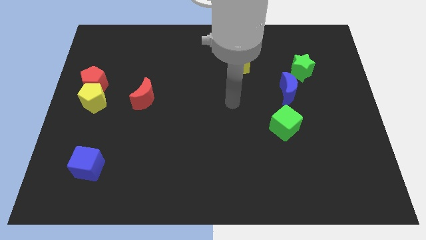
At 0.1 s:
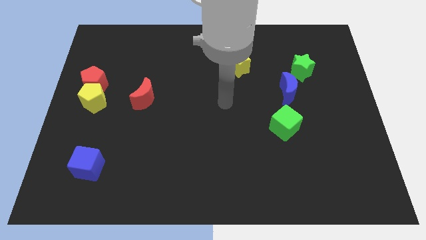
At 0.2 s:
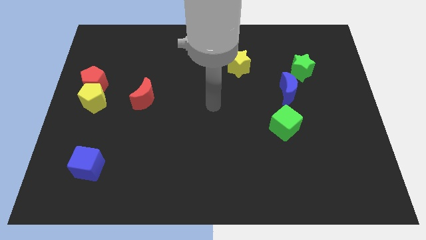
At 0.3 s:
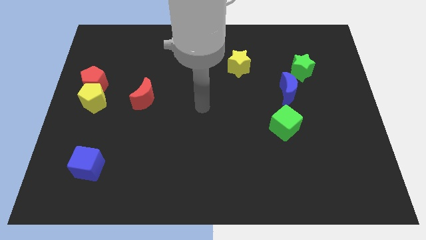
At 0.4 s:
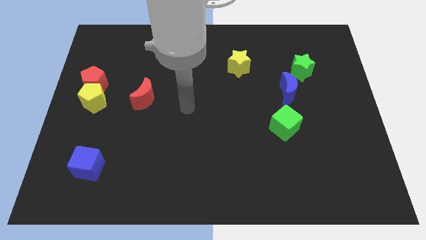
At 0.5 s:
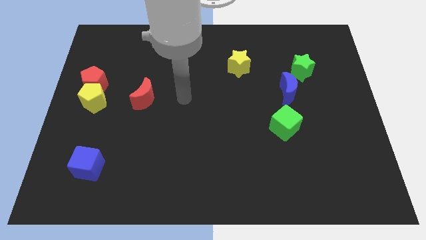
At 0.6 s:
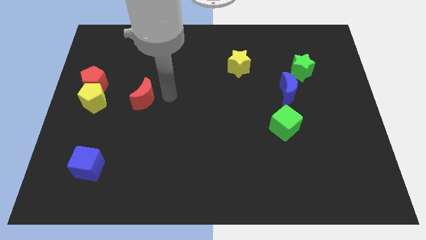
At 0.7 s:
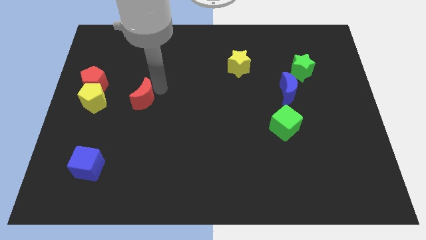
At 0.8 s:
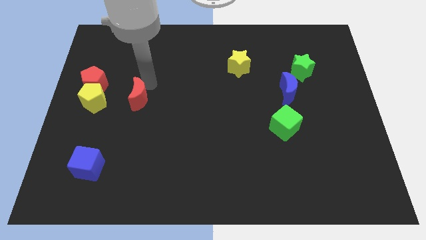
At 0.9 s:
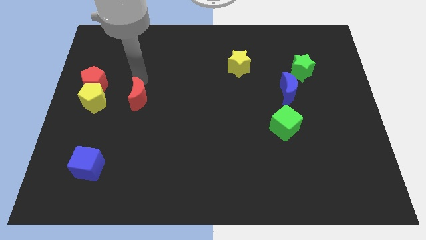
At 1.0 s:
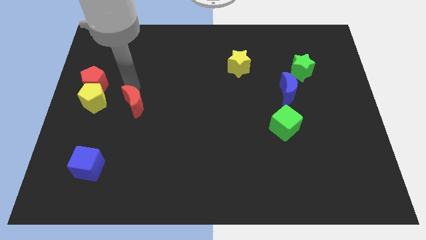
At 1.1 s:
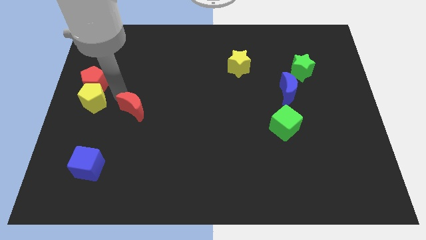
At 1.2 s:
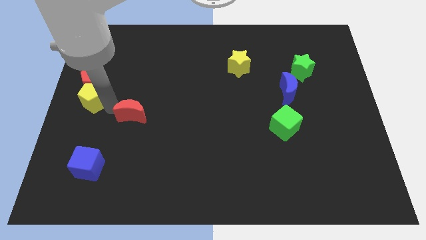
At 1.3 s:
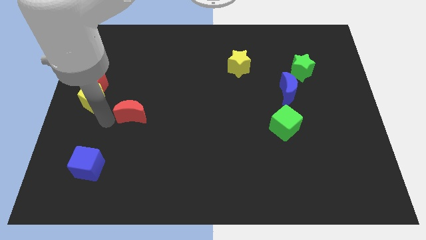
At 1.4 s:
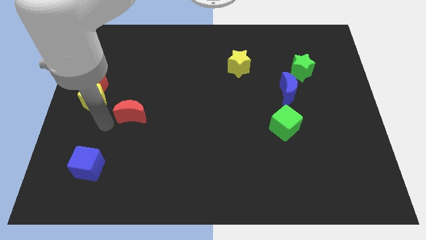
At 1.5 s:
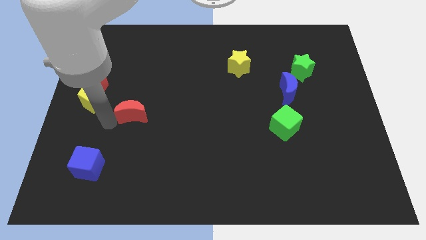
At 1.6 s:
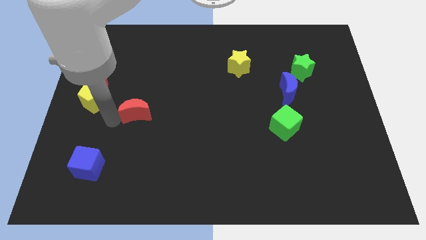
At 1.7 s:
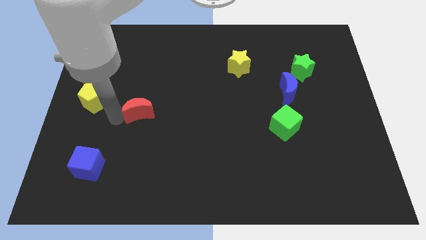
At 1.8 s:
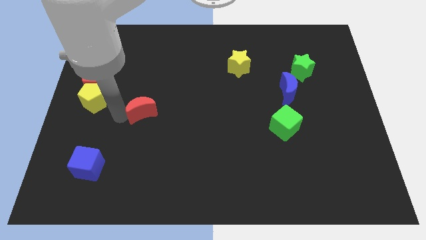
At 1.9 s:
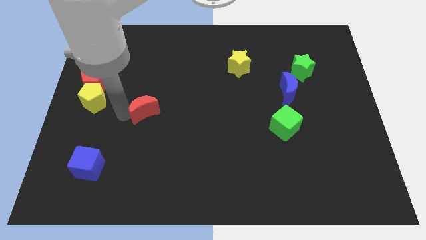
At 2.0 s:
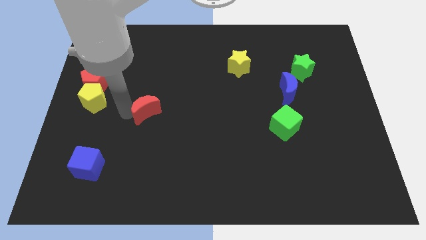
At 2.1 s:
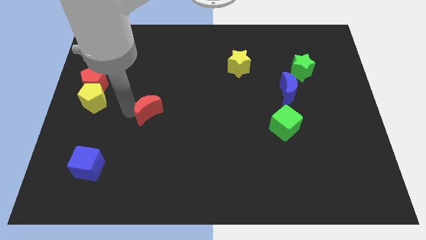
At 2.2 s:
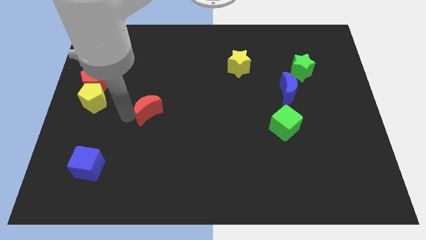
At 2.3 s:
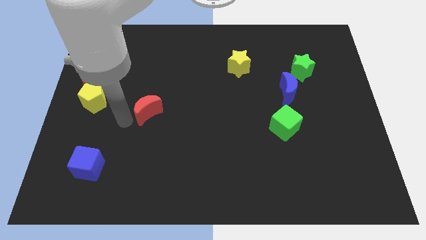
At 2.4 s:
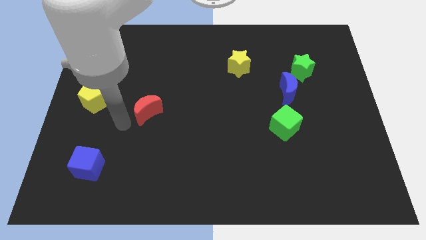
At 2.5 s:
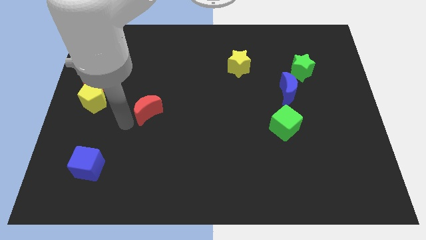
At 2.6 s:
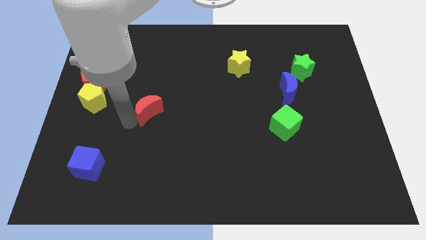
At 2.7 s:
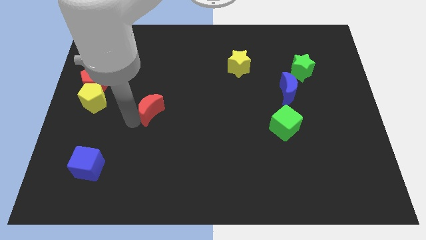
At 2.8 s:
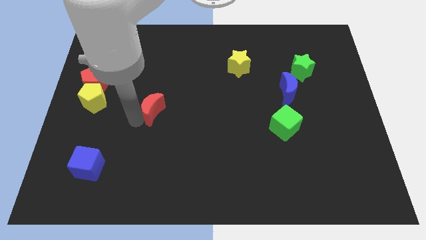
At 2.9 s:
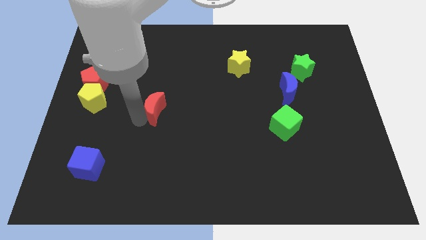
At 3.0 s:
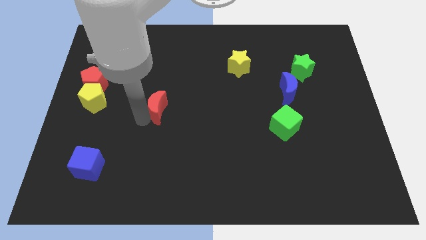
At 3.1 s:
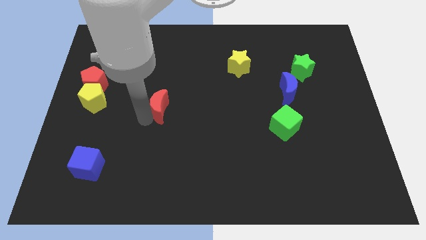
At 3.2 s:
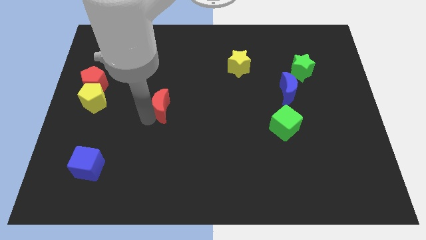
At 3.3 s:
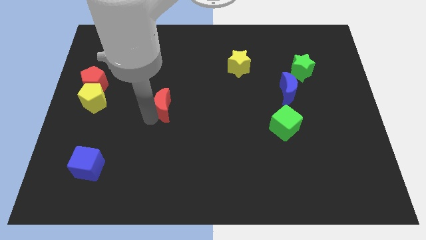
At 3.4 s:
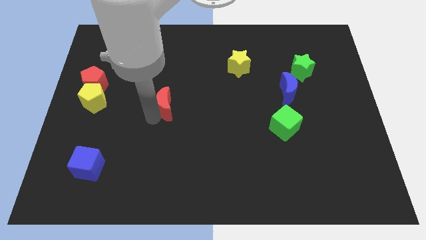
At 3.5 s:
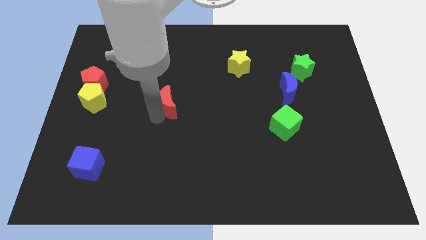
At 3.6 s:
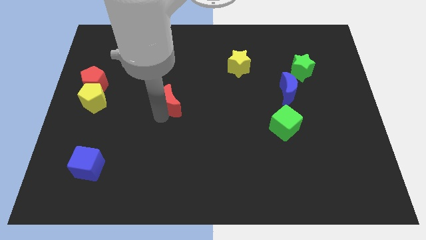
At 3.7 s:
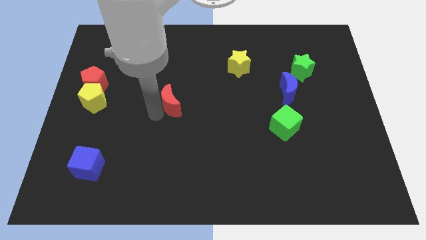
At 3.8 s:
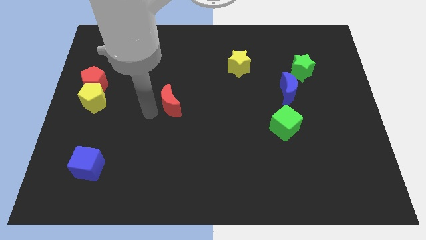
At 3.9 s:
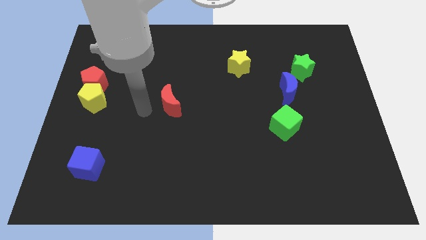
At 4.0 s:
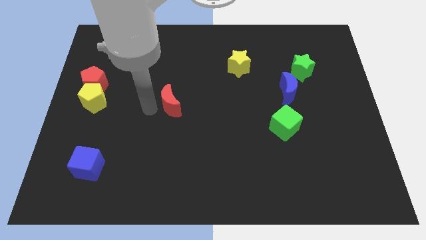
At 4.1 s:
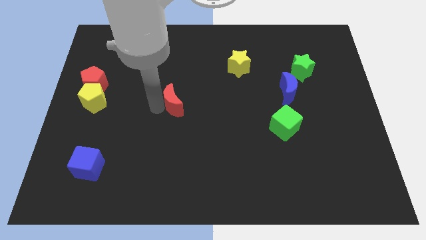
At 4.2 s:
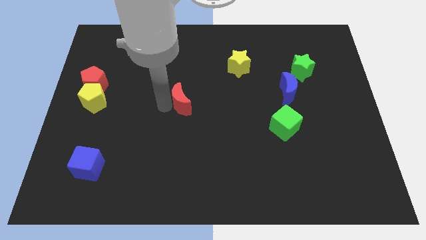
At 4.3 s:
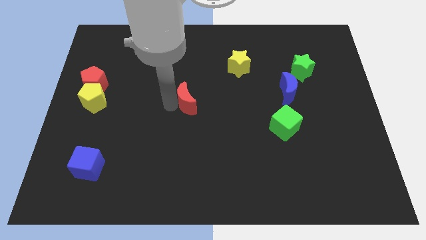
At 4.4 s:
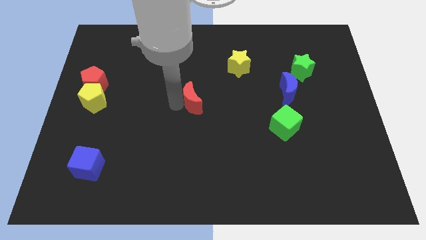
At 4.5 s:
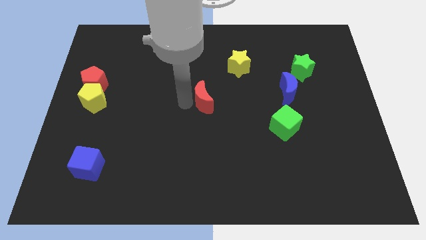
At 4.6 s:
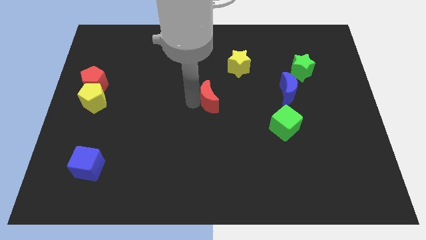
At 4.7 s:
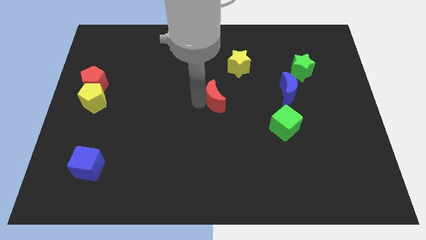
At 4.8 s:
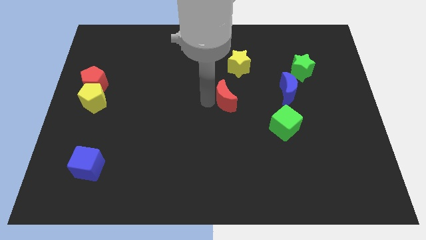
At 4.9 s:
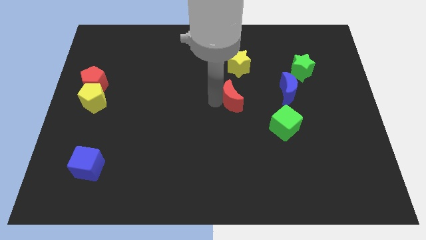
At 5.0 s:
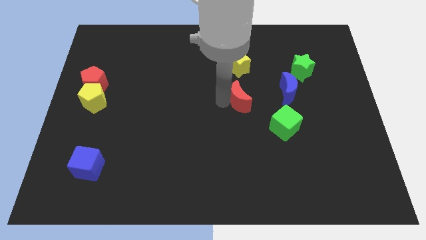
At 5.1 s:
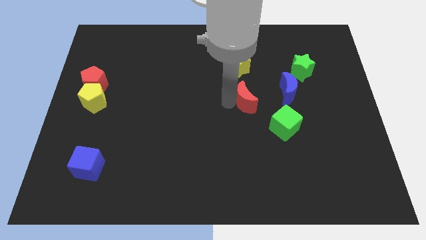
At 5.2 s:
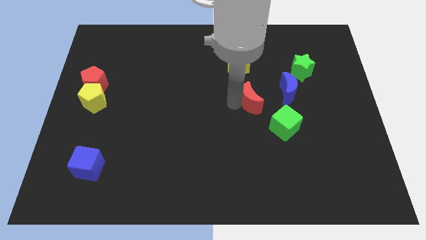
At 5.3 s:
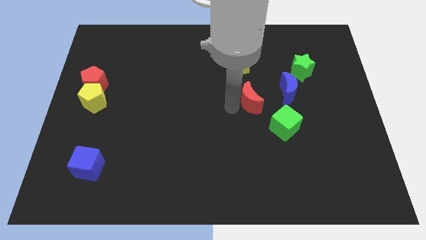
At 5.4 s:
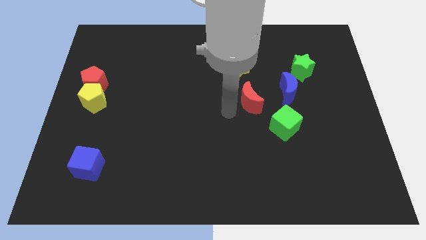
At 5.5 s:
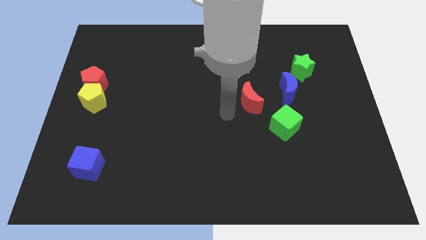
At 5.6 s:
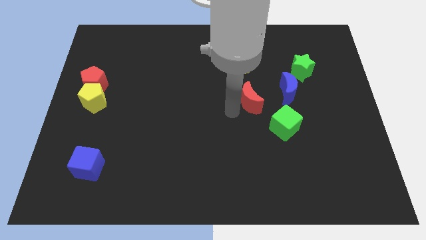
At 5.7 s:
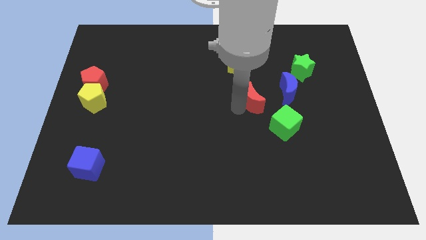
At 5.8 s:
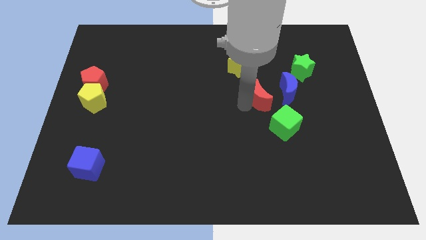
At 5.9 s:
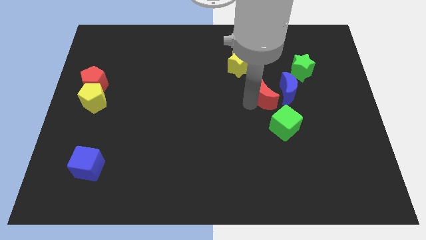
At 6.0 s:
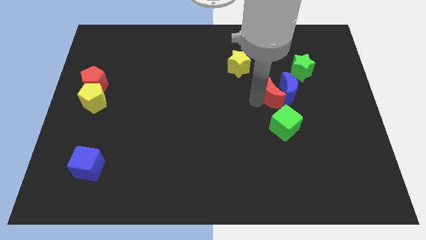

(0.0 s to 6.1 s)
put the red moon close to the blue moon

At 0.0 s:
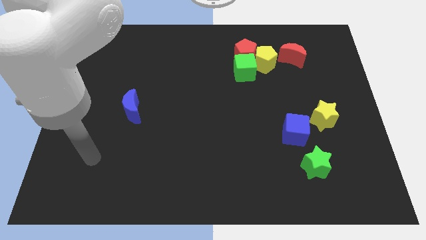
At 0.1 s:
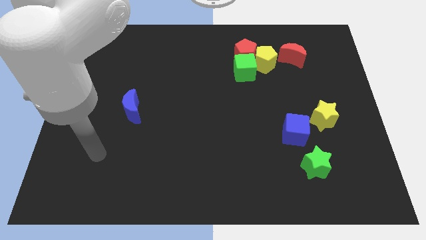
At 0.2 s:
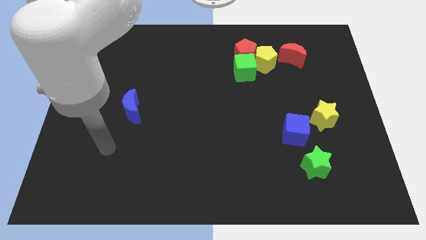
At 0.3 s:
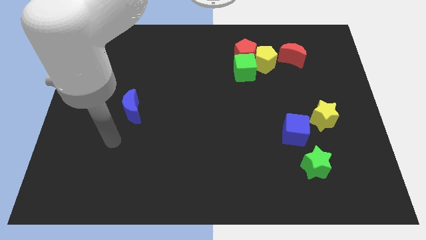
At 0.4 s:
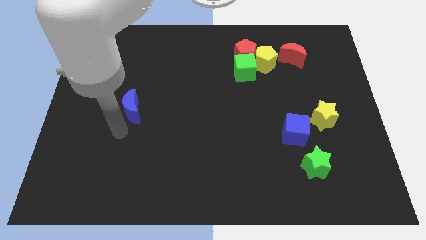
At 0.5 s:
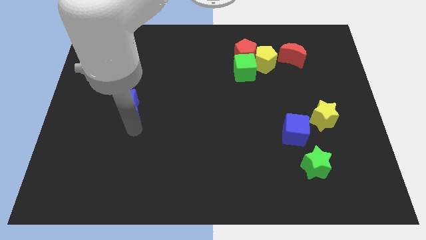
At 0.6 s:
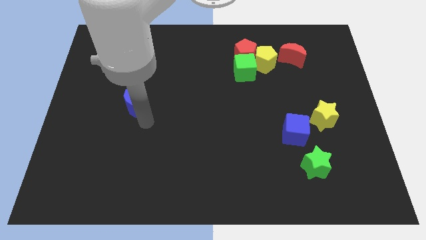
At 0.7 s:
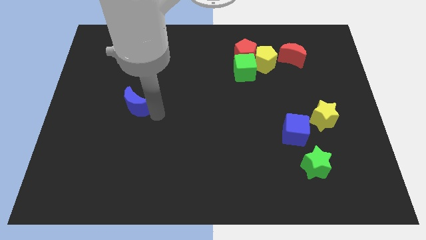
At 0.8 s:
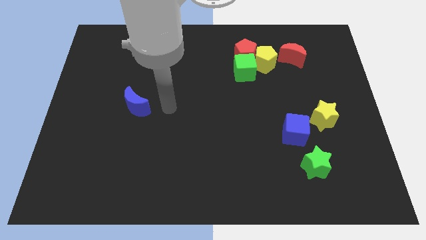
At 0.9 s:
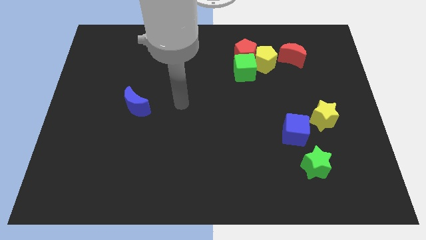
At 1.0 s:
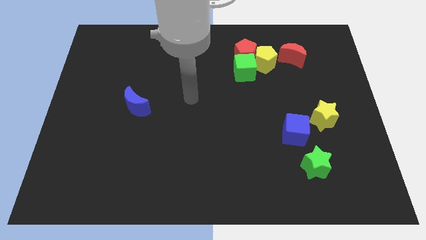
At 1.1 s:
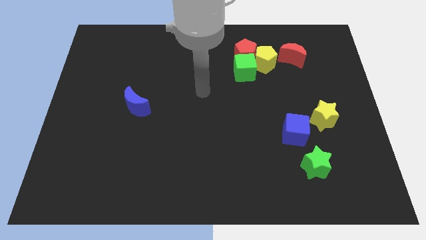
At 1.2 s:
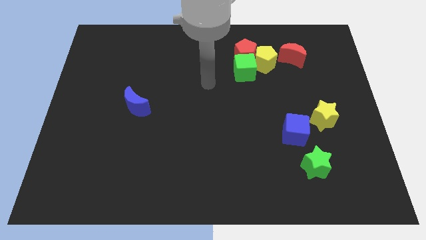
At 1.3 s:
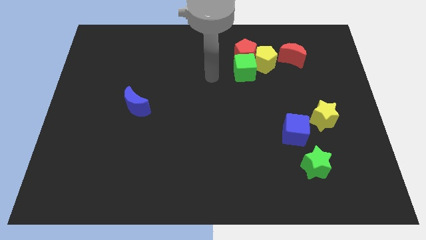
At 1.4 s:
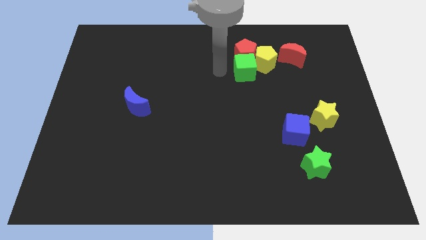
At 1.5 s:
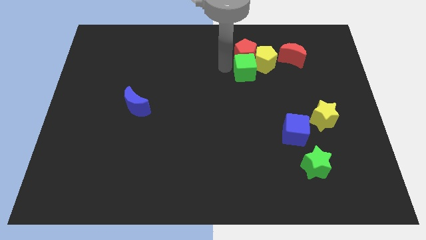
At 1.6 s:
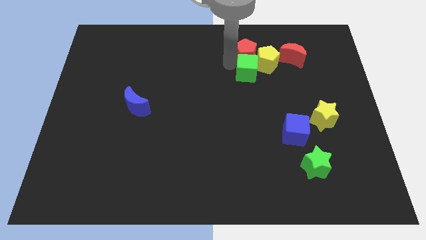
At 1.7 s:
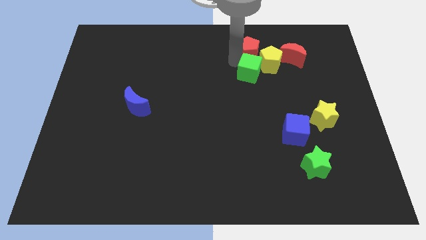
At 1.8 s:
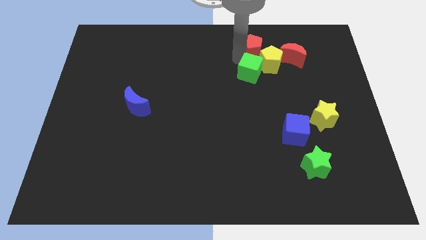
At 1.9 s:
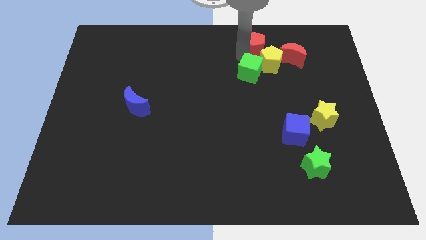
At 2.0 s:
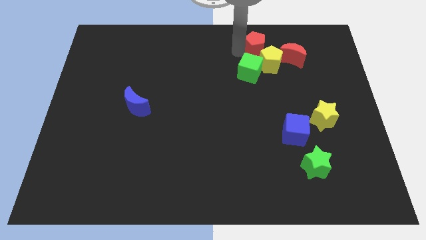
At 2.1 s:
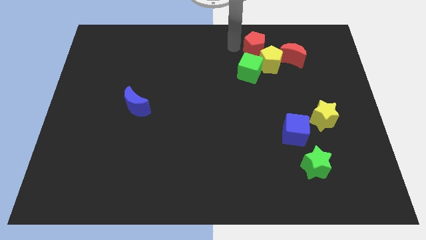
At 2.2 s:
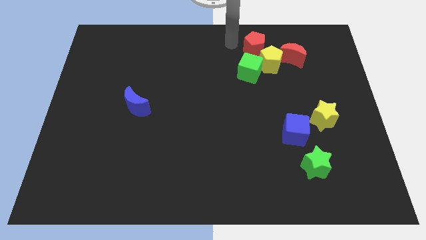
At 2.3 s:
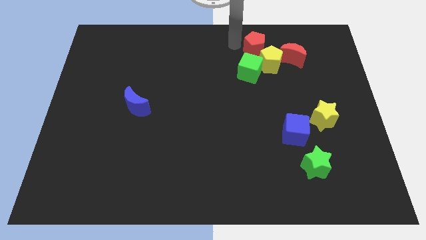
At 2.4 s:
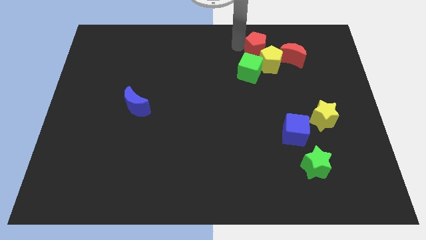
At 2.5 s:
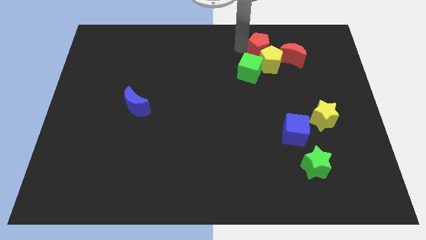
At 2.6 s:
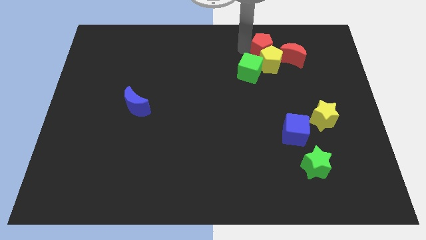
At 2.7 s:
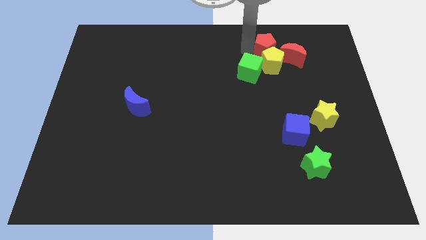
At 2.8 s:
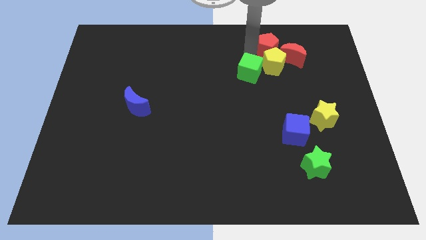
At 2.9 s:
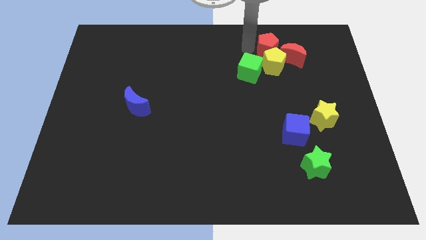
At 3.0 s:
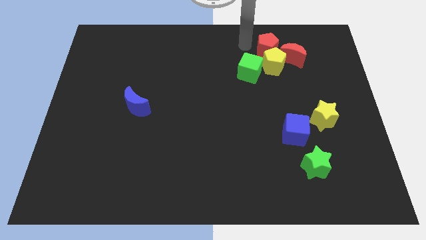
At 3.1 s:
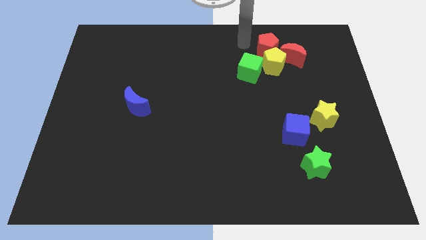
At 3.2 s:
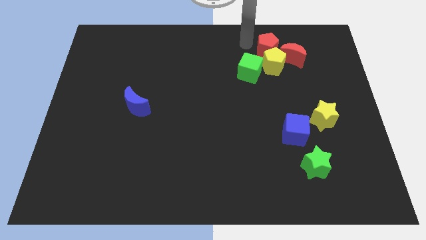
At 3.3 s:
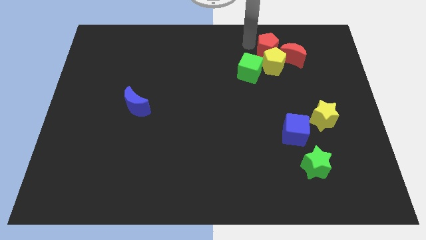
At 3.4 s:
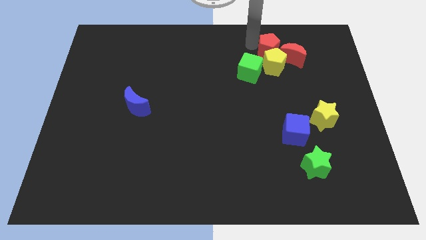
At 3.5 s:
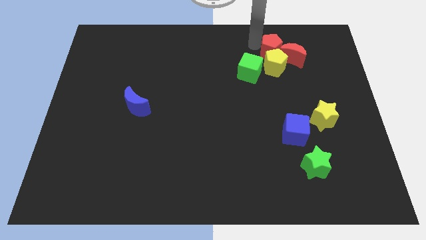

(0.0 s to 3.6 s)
push the red pentagon next to the red moon
